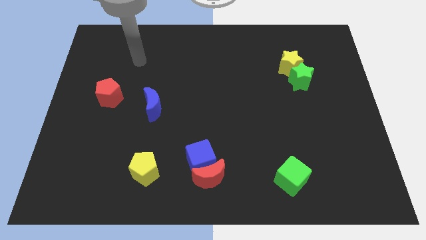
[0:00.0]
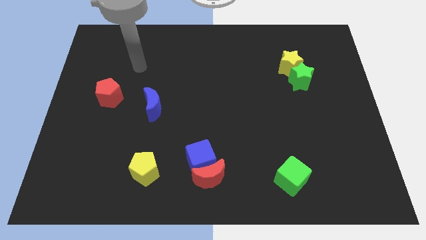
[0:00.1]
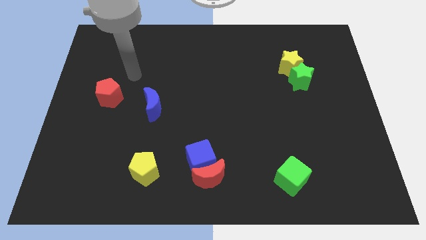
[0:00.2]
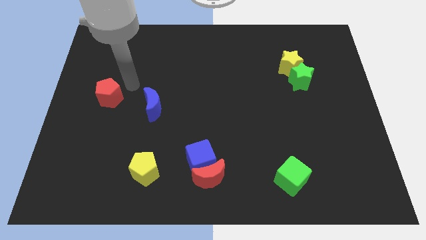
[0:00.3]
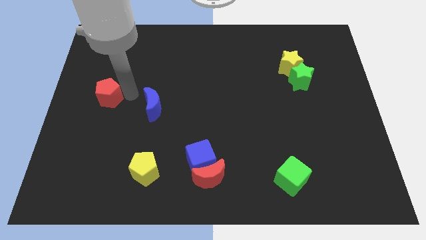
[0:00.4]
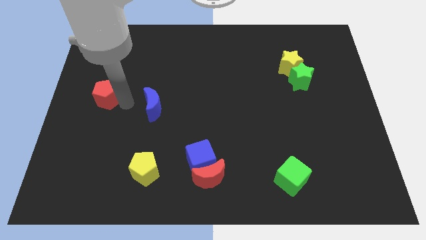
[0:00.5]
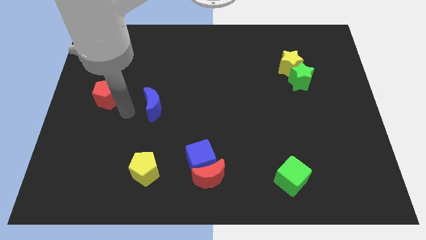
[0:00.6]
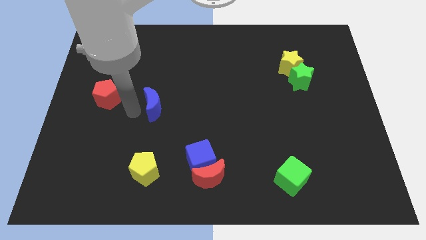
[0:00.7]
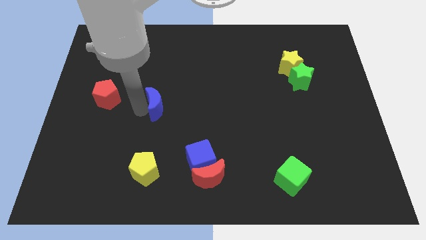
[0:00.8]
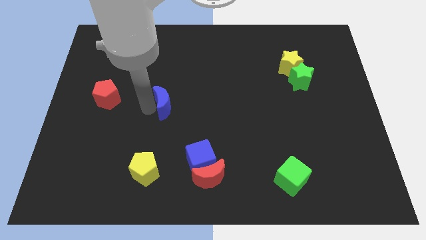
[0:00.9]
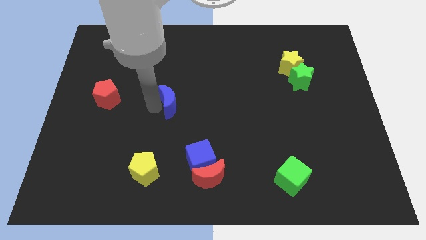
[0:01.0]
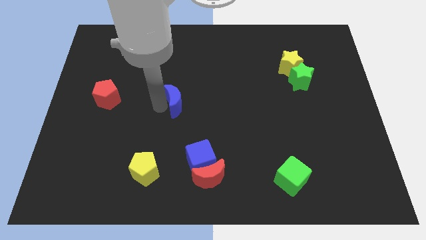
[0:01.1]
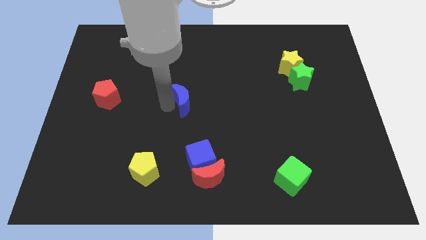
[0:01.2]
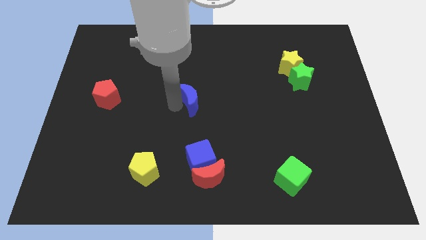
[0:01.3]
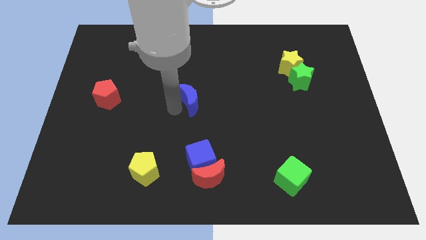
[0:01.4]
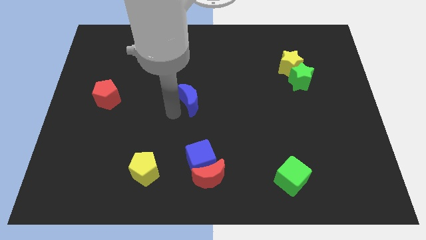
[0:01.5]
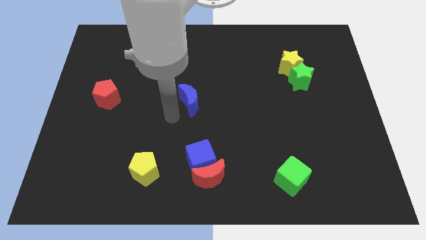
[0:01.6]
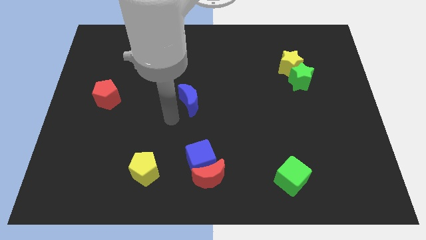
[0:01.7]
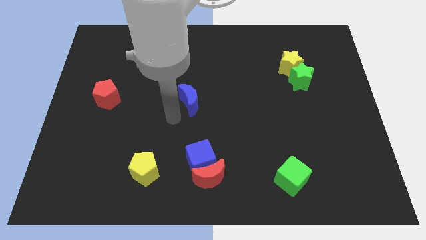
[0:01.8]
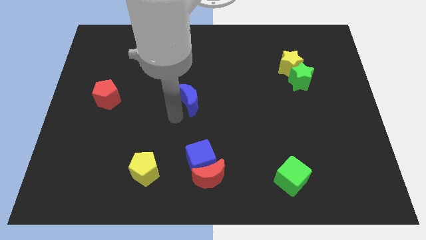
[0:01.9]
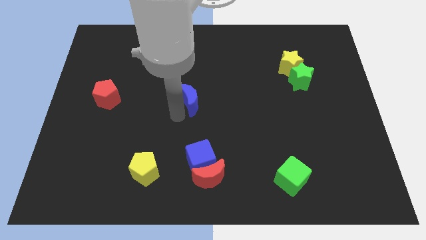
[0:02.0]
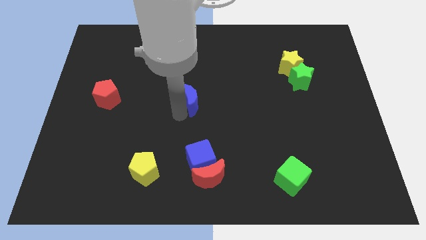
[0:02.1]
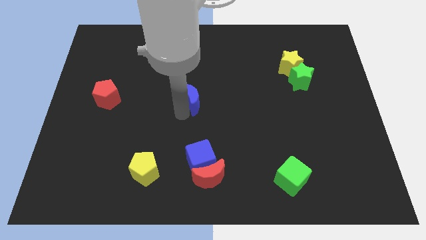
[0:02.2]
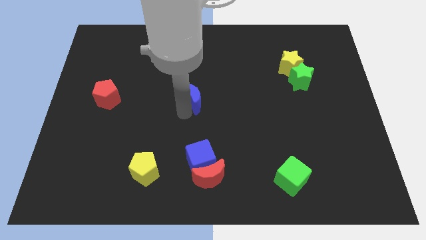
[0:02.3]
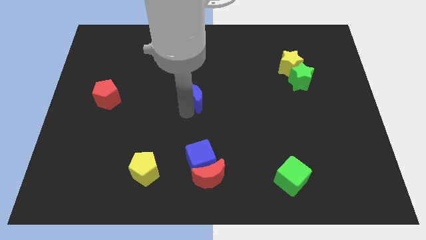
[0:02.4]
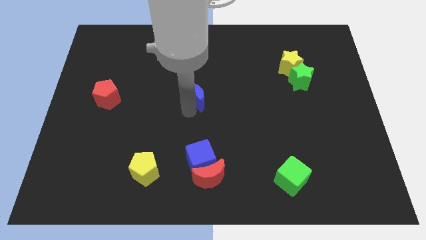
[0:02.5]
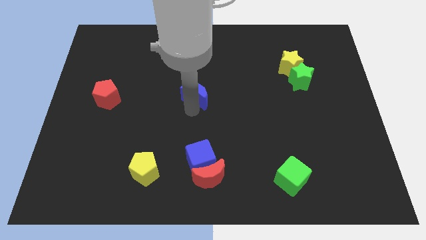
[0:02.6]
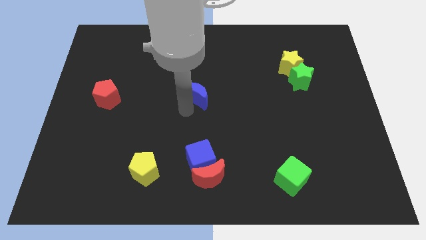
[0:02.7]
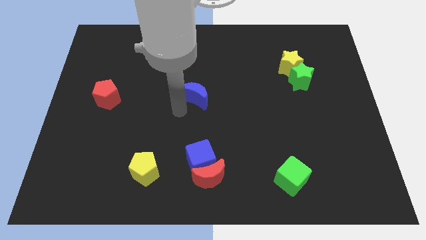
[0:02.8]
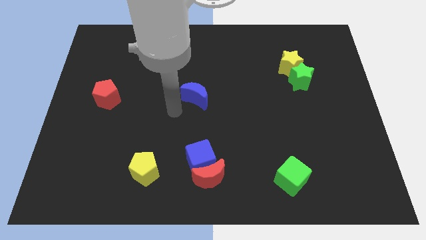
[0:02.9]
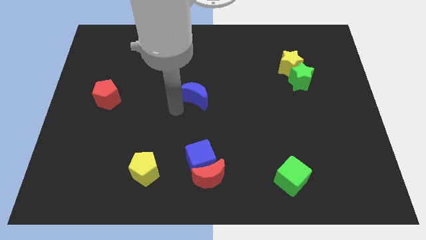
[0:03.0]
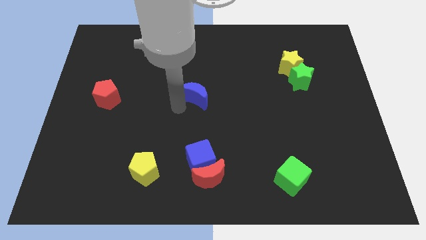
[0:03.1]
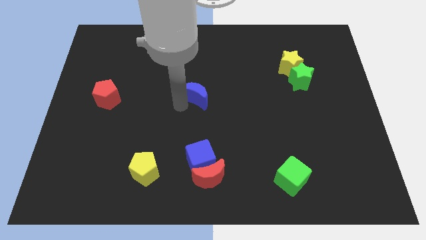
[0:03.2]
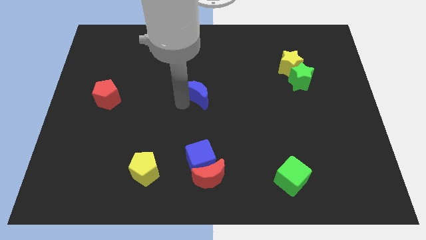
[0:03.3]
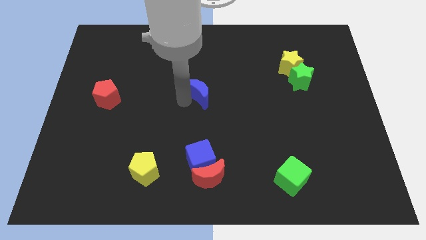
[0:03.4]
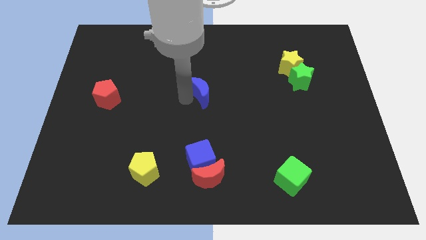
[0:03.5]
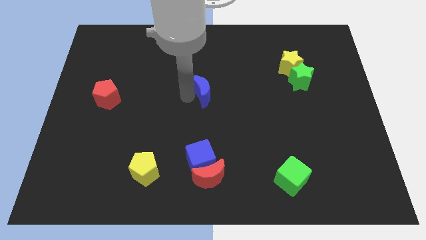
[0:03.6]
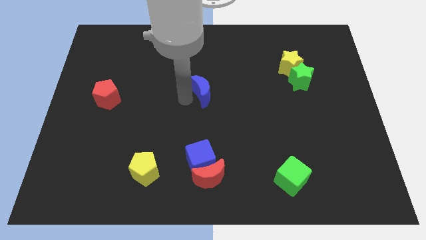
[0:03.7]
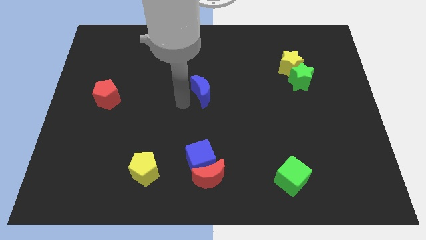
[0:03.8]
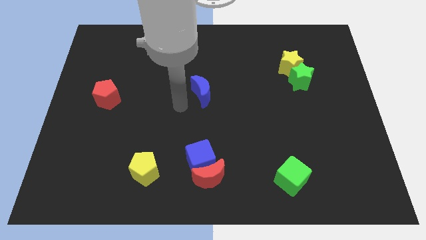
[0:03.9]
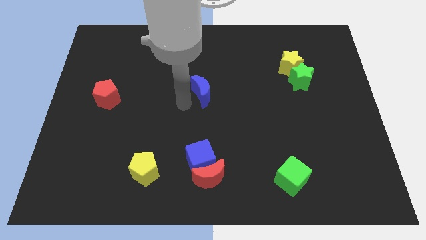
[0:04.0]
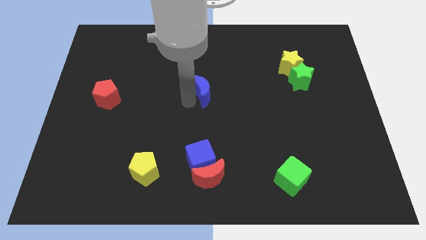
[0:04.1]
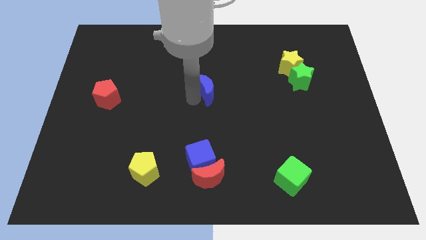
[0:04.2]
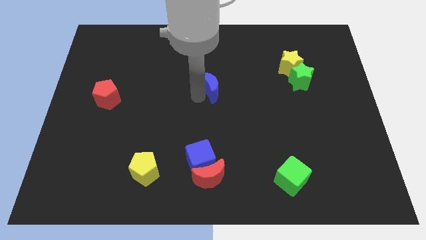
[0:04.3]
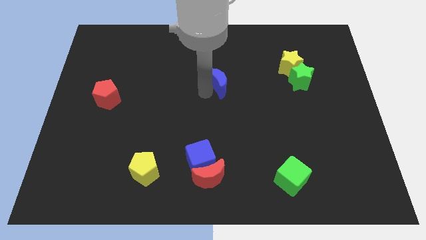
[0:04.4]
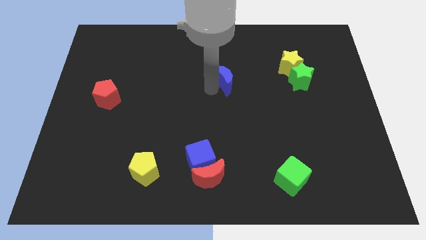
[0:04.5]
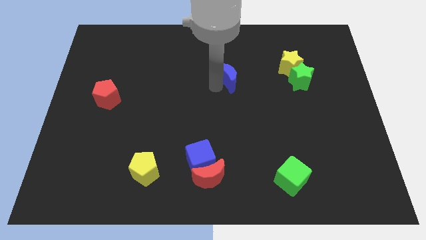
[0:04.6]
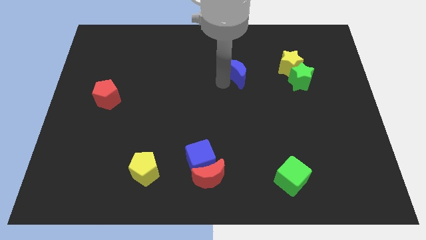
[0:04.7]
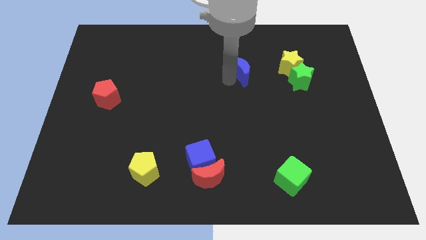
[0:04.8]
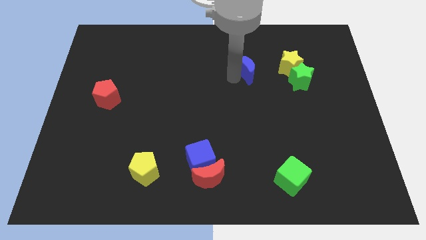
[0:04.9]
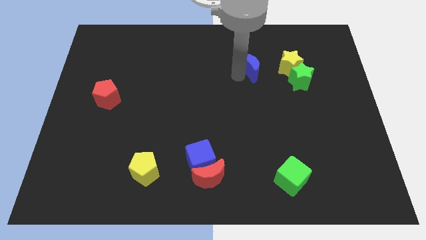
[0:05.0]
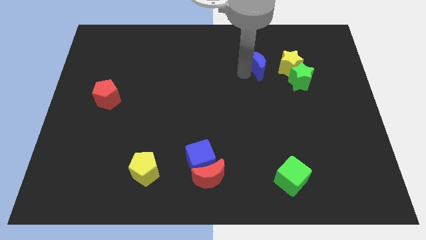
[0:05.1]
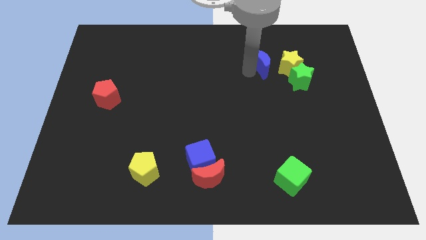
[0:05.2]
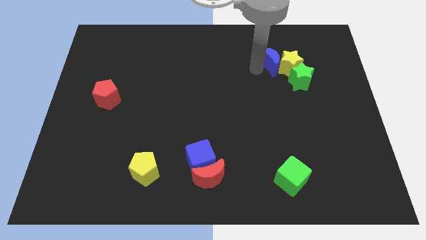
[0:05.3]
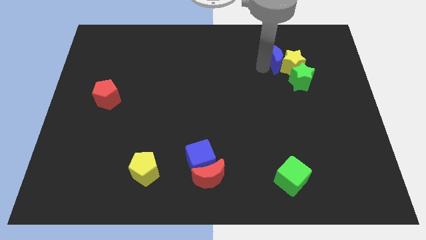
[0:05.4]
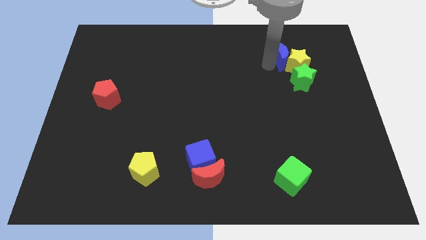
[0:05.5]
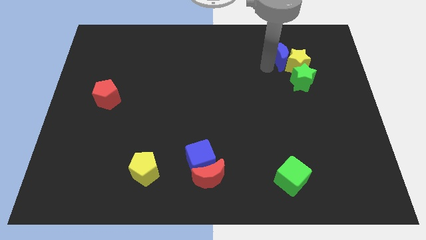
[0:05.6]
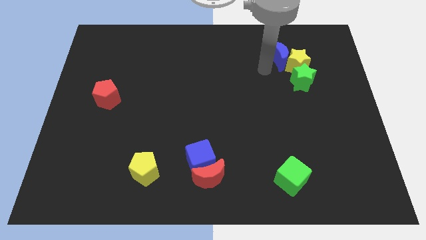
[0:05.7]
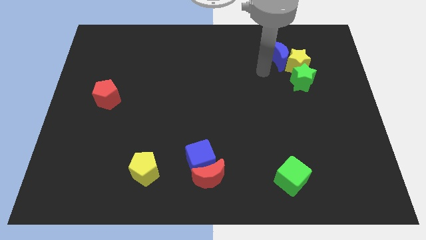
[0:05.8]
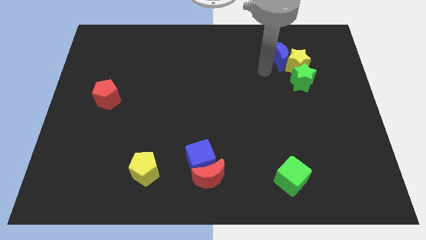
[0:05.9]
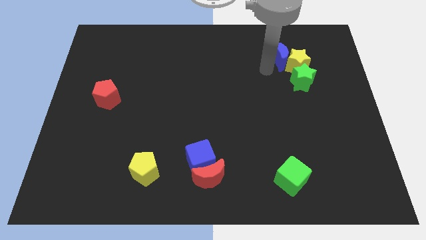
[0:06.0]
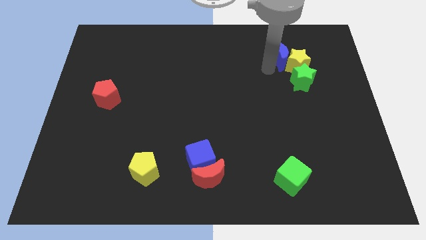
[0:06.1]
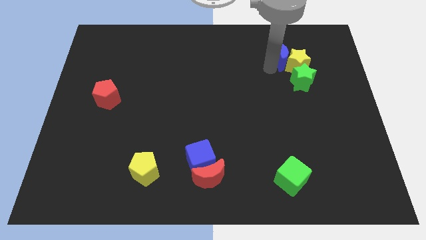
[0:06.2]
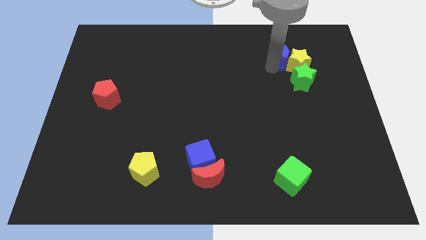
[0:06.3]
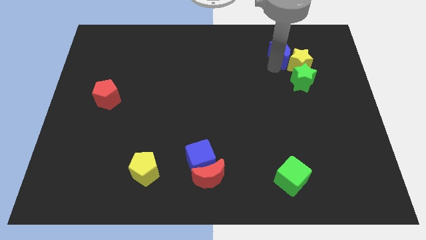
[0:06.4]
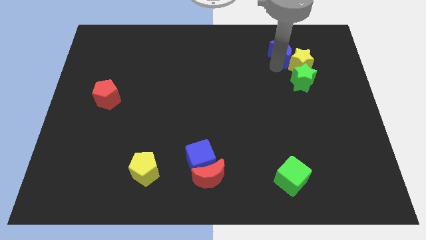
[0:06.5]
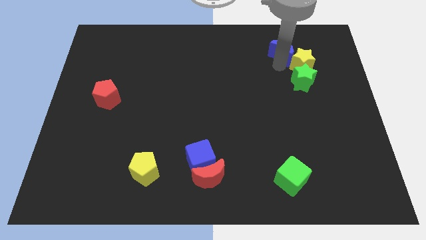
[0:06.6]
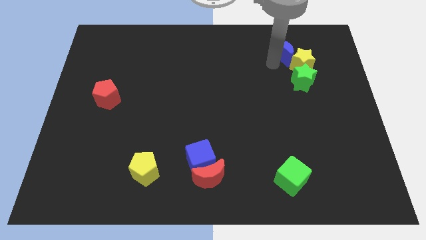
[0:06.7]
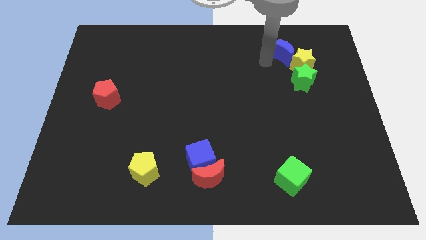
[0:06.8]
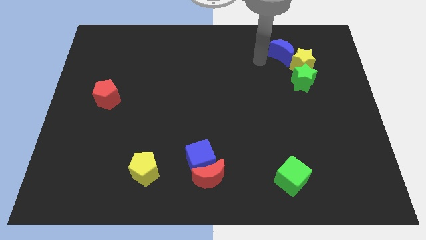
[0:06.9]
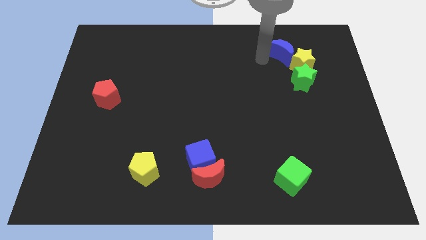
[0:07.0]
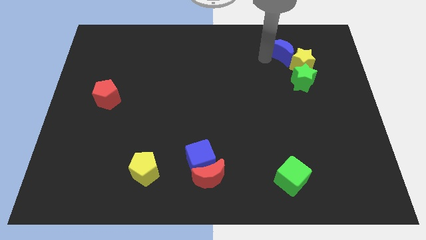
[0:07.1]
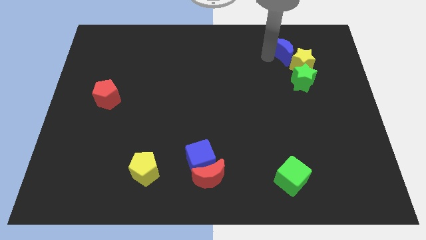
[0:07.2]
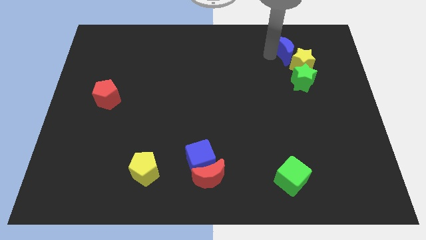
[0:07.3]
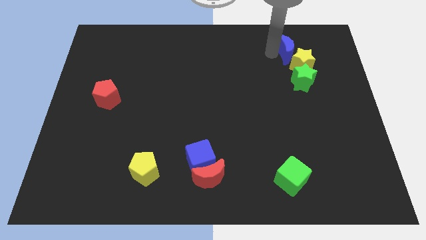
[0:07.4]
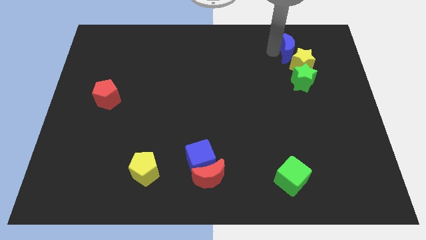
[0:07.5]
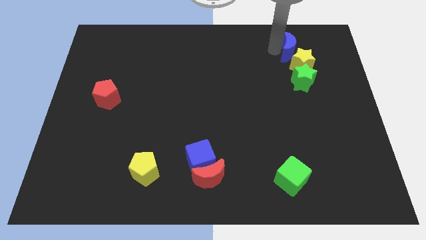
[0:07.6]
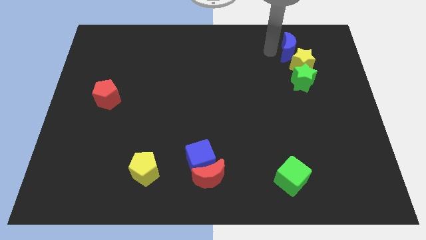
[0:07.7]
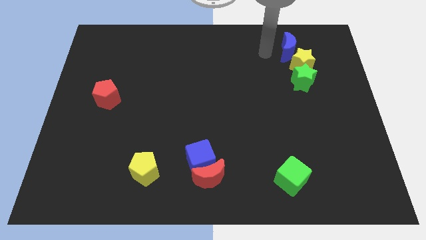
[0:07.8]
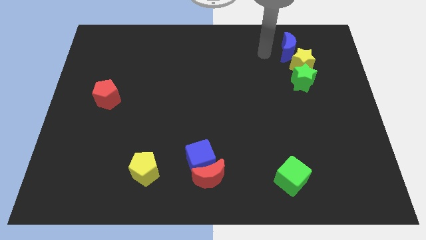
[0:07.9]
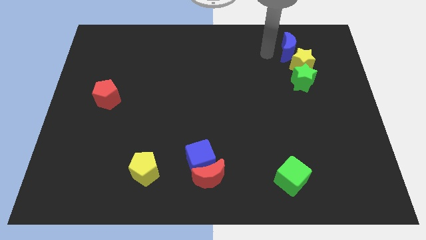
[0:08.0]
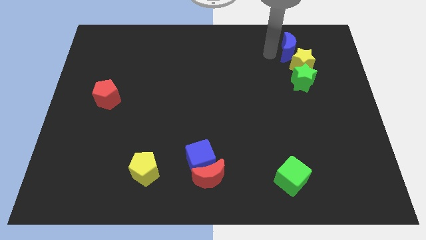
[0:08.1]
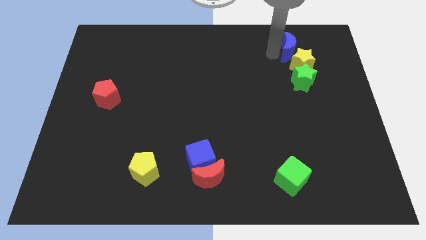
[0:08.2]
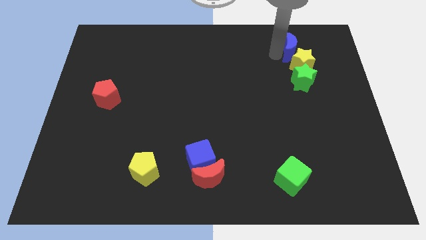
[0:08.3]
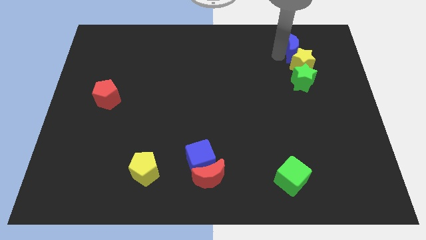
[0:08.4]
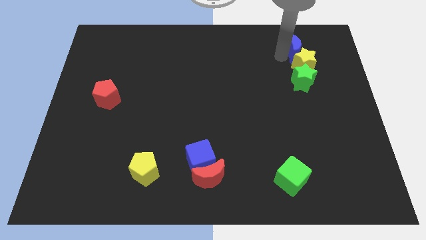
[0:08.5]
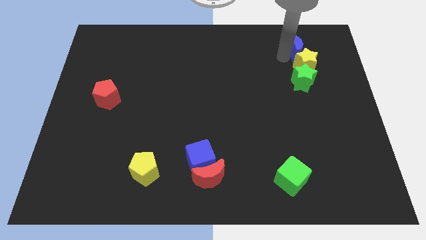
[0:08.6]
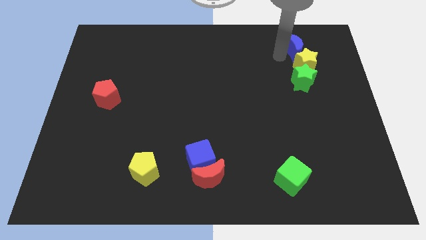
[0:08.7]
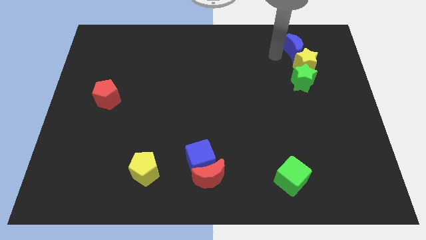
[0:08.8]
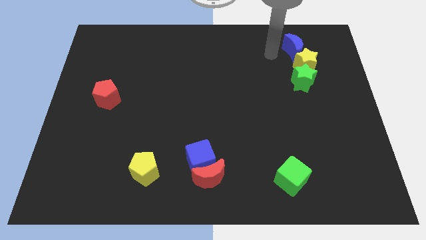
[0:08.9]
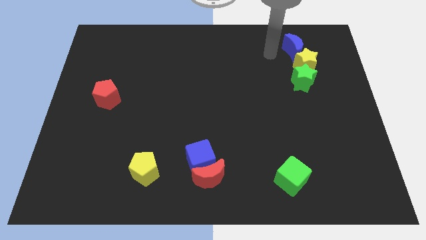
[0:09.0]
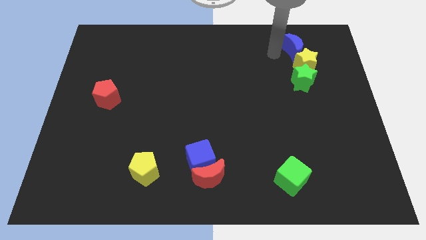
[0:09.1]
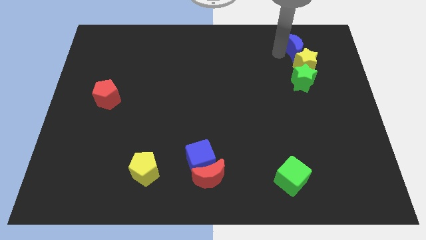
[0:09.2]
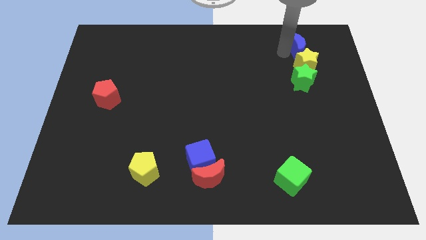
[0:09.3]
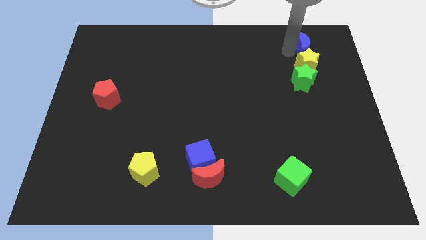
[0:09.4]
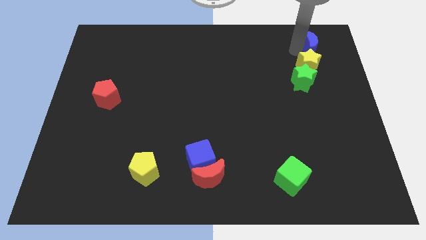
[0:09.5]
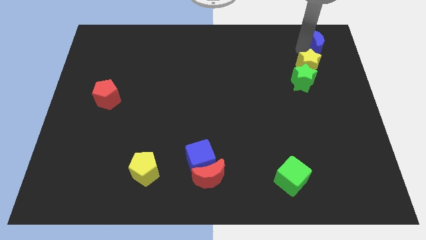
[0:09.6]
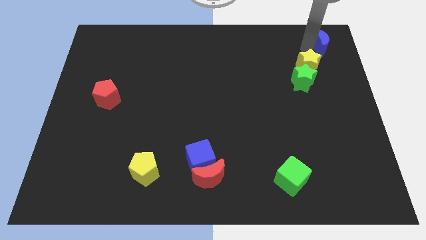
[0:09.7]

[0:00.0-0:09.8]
push the blue moon to the top right of the board
